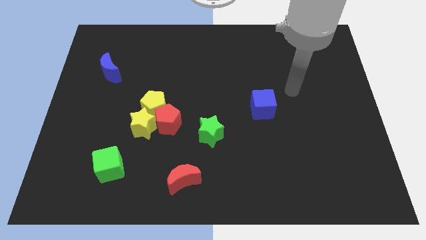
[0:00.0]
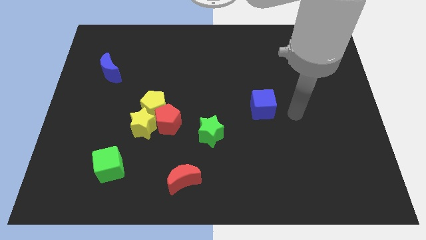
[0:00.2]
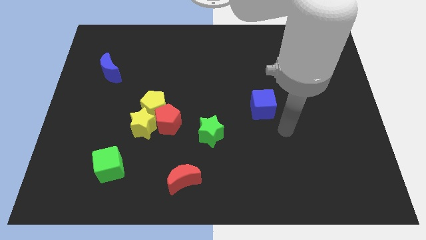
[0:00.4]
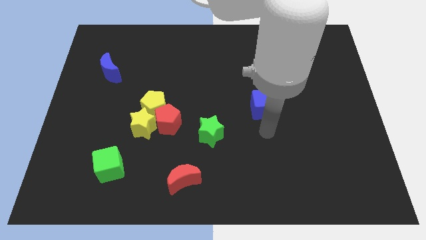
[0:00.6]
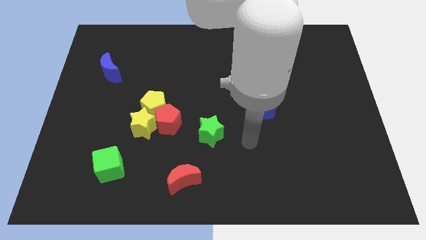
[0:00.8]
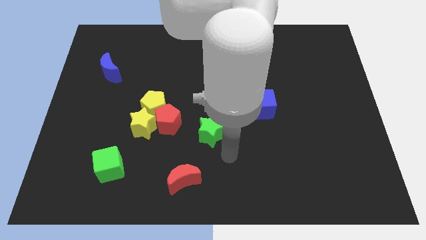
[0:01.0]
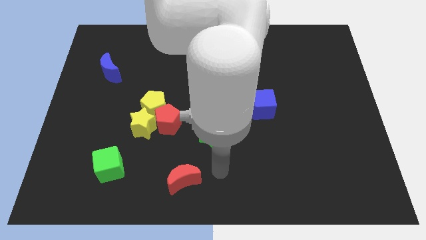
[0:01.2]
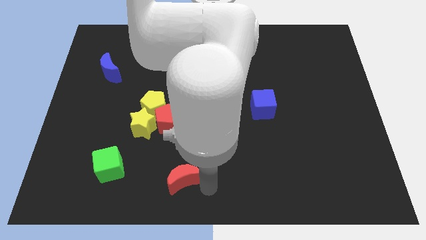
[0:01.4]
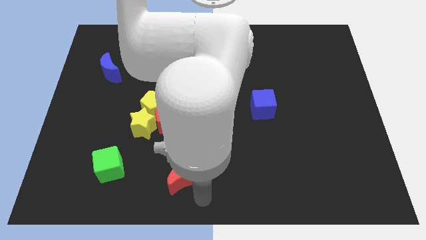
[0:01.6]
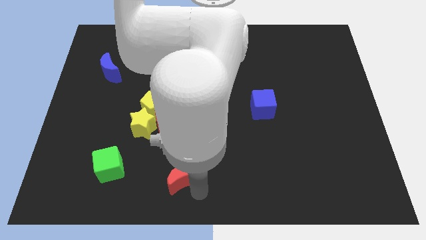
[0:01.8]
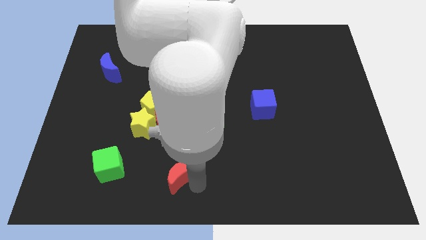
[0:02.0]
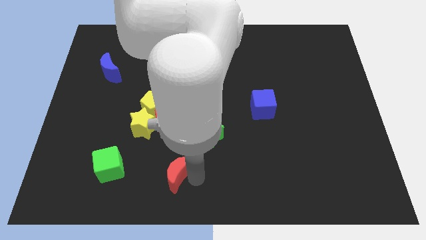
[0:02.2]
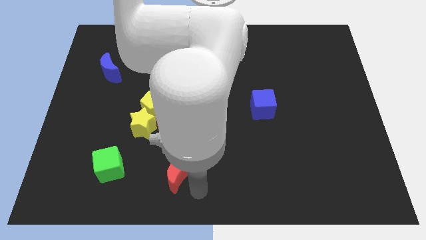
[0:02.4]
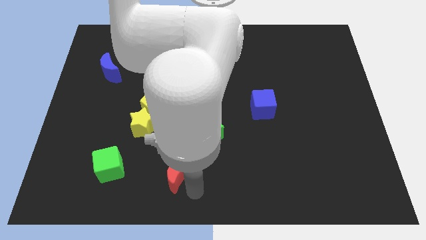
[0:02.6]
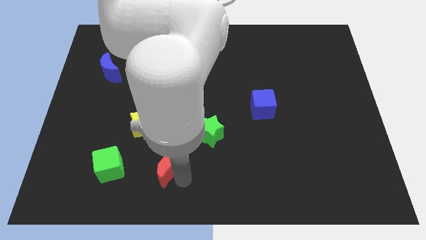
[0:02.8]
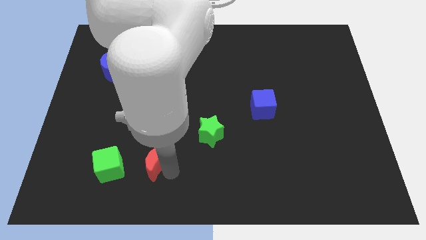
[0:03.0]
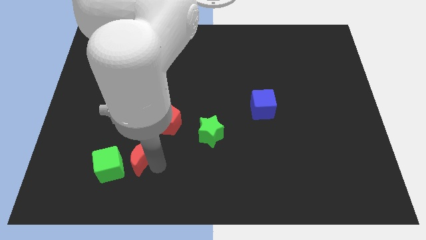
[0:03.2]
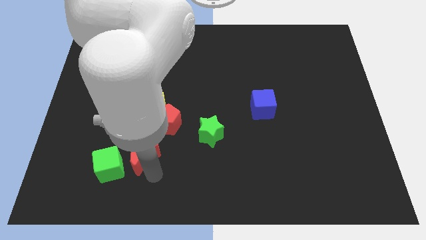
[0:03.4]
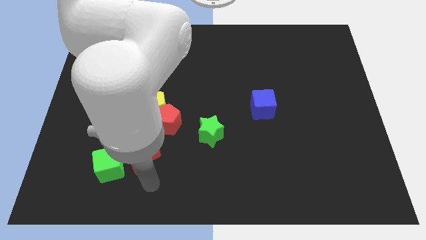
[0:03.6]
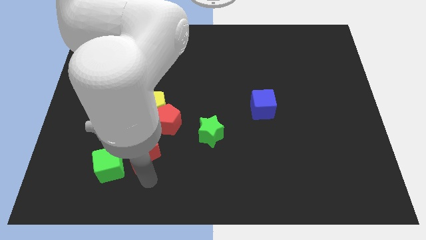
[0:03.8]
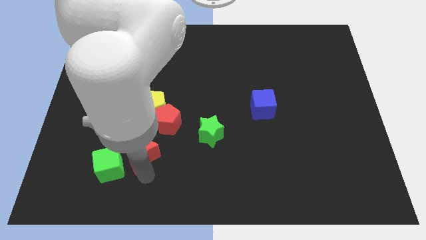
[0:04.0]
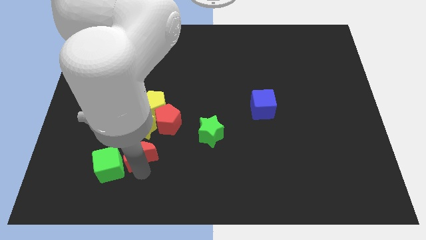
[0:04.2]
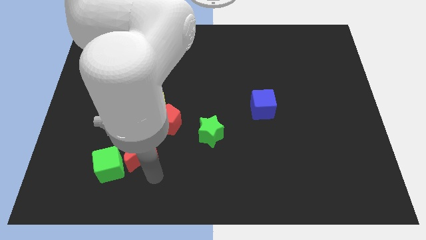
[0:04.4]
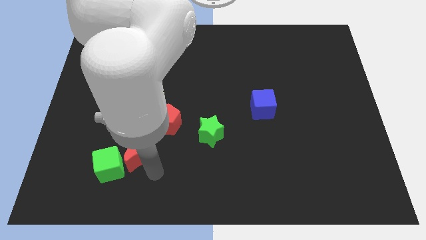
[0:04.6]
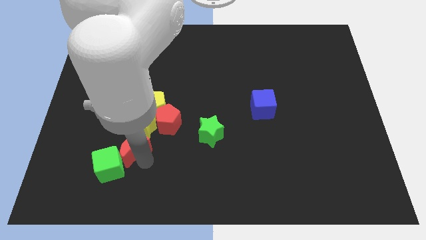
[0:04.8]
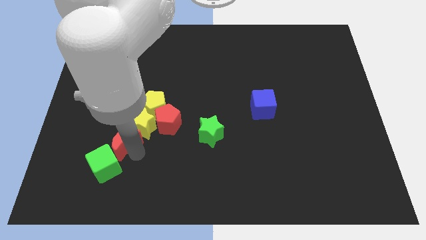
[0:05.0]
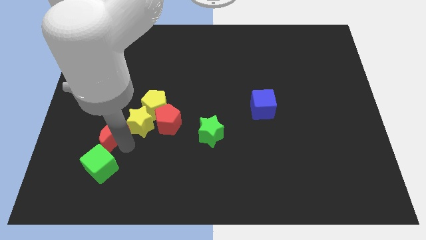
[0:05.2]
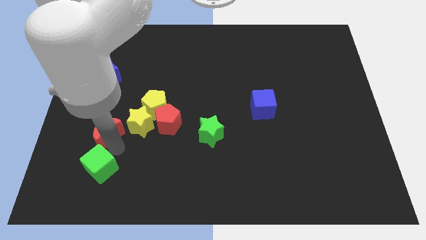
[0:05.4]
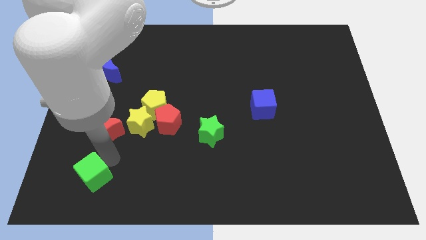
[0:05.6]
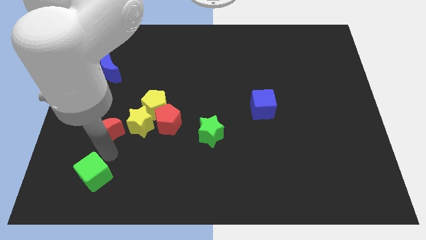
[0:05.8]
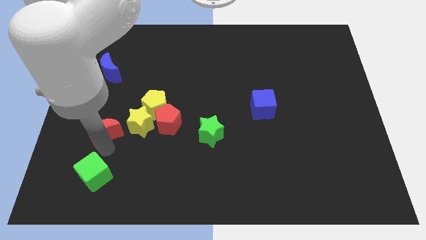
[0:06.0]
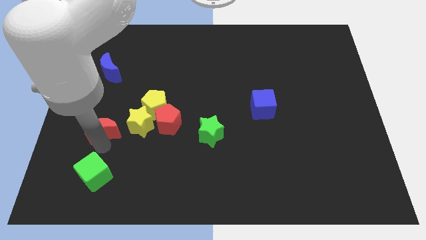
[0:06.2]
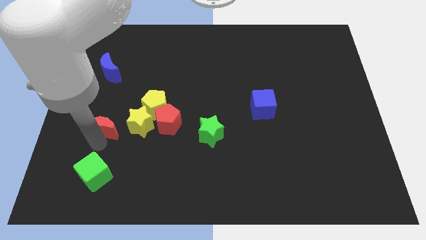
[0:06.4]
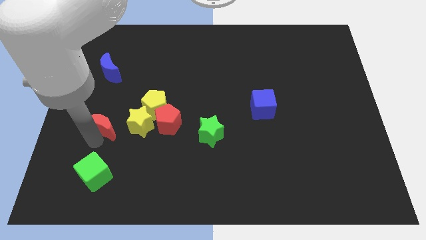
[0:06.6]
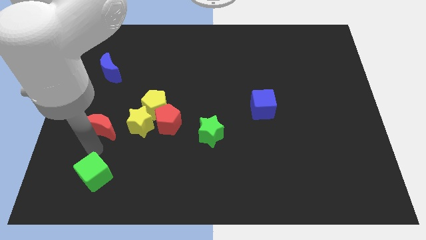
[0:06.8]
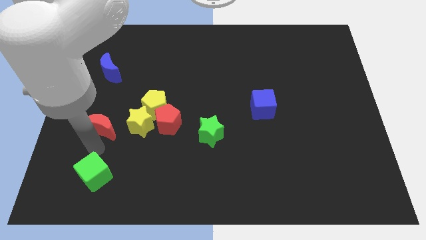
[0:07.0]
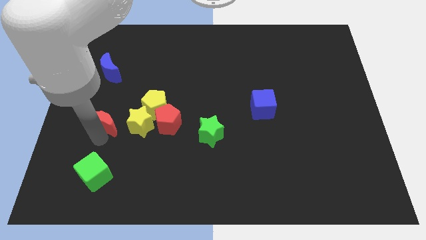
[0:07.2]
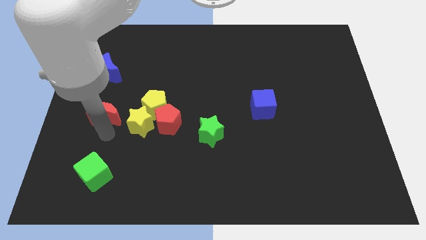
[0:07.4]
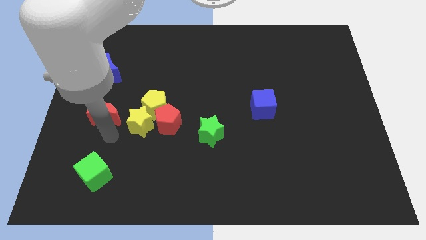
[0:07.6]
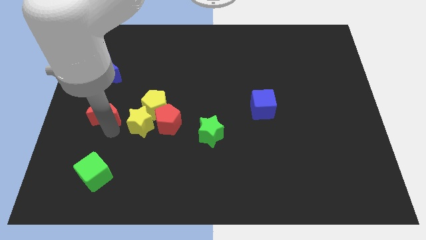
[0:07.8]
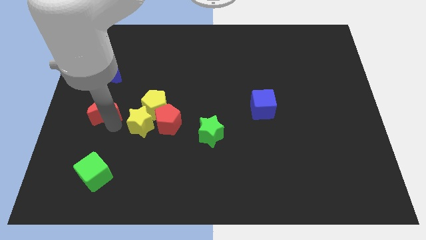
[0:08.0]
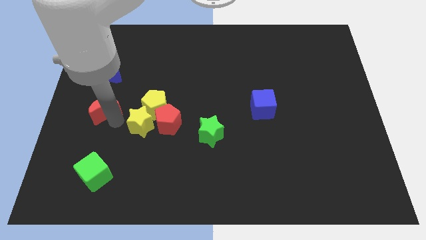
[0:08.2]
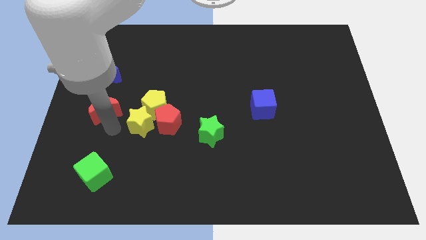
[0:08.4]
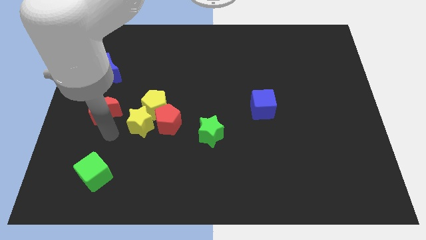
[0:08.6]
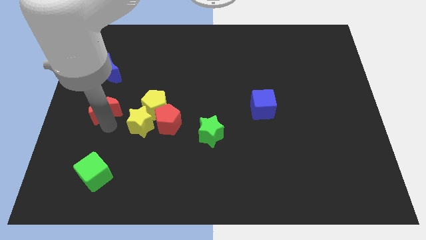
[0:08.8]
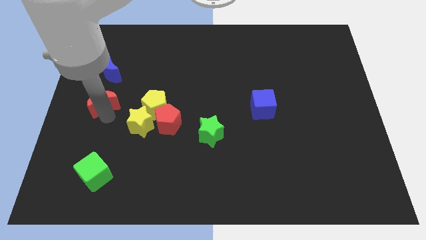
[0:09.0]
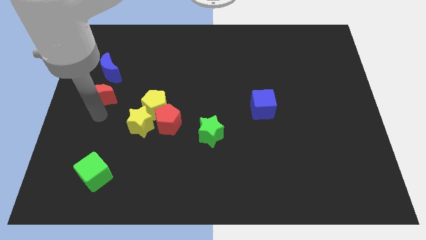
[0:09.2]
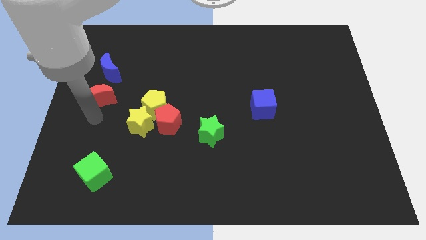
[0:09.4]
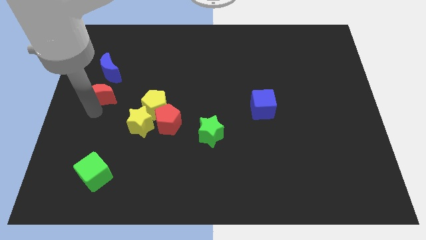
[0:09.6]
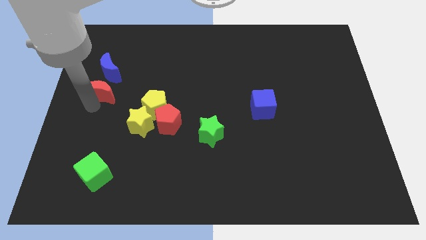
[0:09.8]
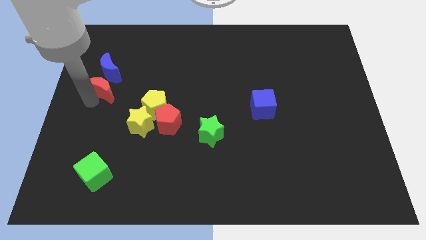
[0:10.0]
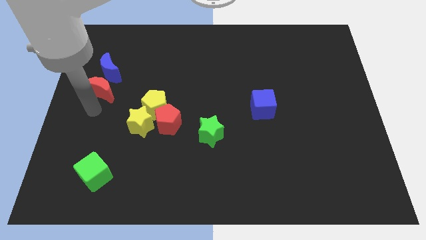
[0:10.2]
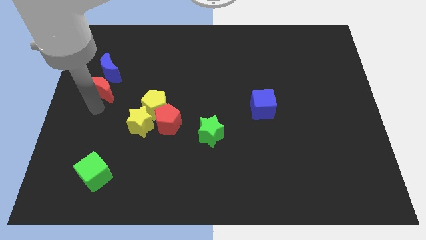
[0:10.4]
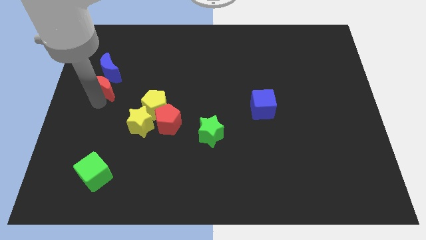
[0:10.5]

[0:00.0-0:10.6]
put the red moon to the blue moon

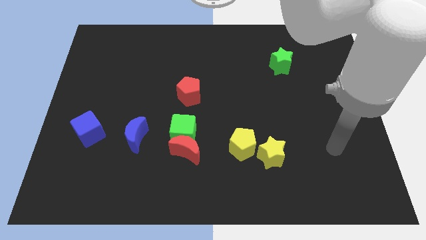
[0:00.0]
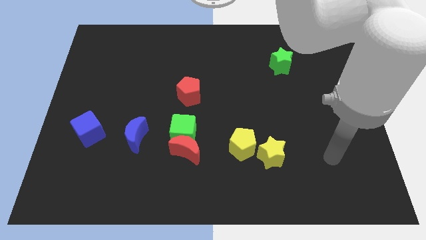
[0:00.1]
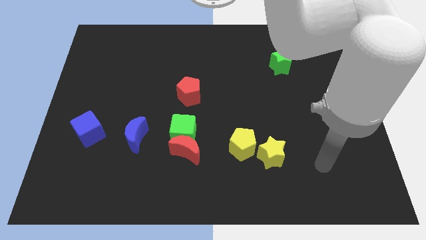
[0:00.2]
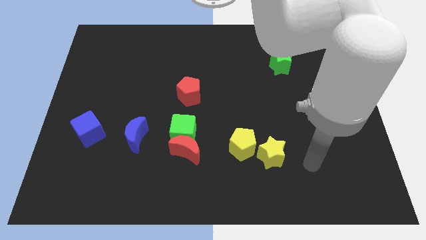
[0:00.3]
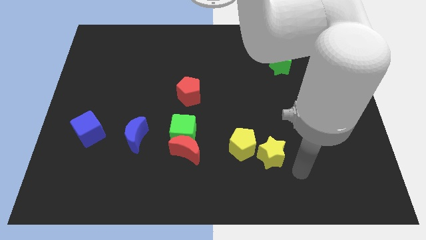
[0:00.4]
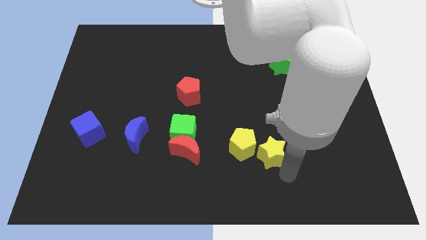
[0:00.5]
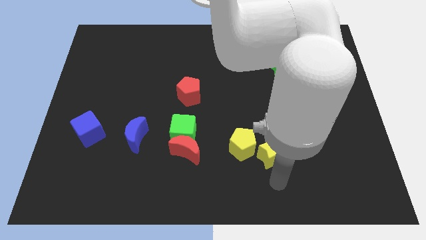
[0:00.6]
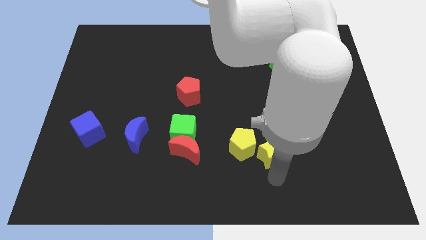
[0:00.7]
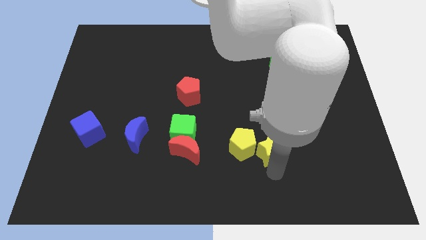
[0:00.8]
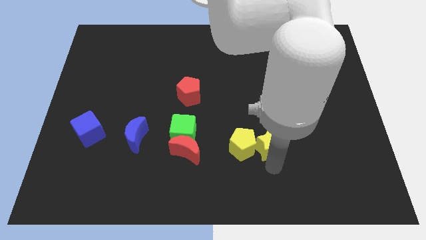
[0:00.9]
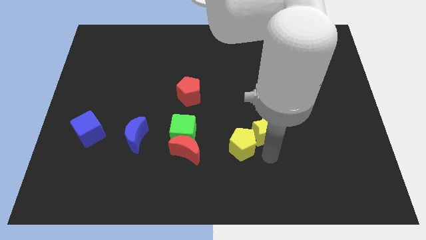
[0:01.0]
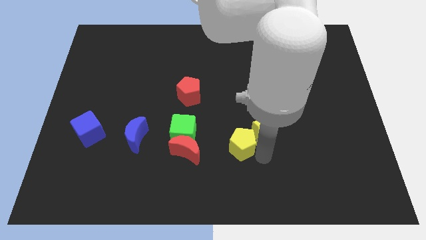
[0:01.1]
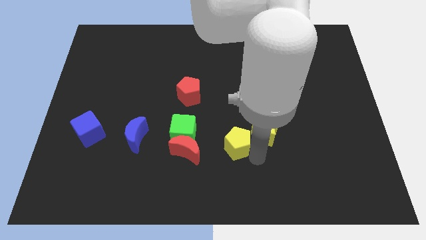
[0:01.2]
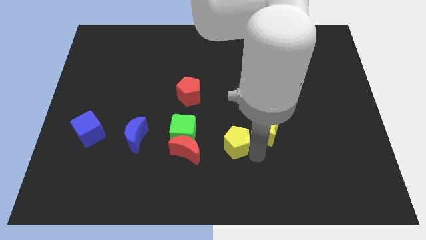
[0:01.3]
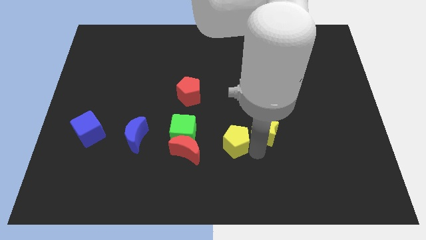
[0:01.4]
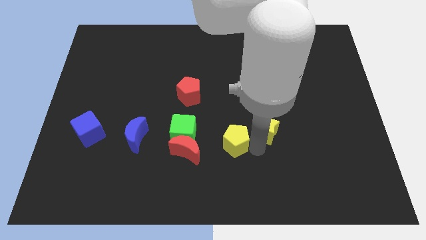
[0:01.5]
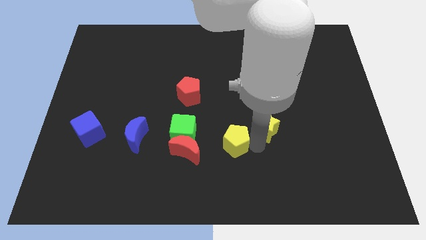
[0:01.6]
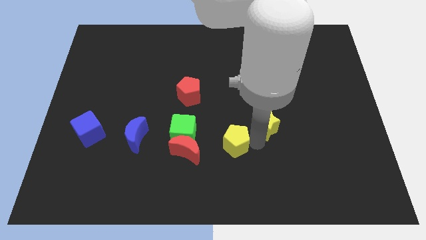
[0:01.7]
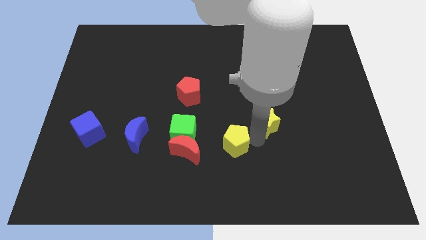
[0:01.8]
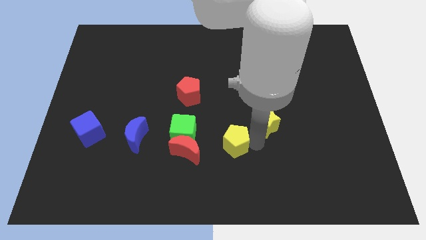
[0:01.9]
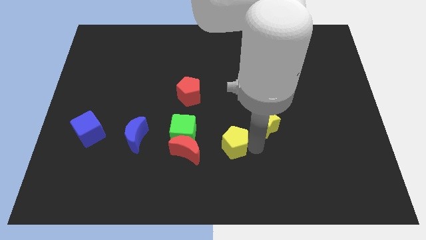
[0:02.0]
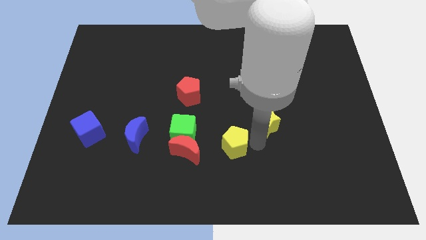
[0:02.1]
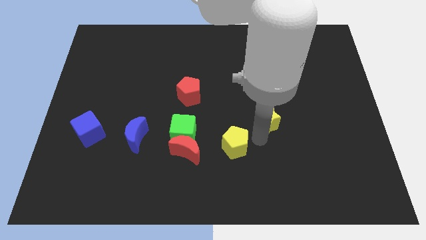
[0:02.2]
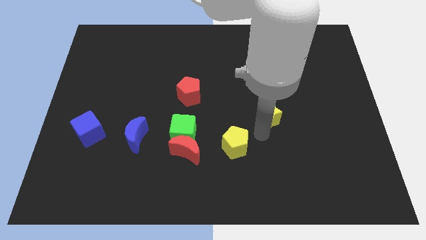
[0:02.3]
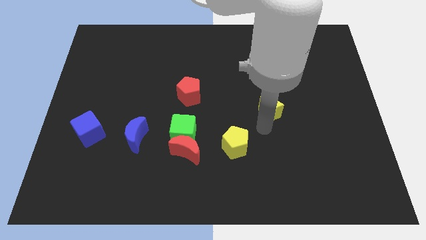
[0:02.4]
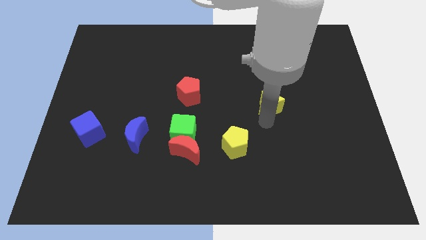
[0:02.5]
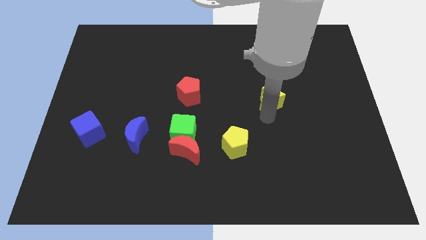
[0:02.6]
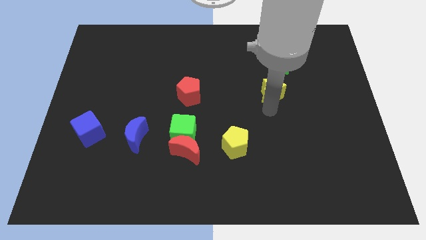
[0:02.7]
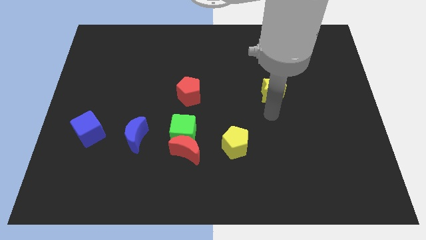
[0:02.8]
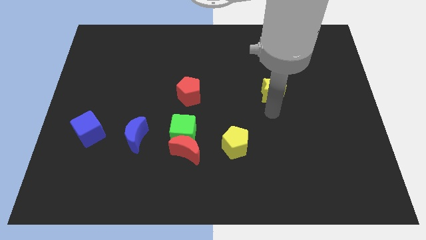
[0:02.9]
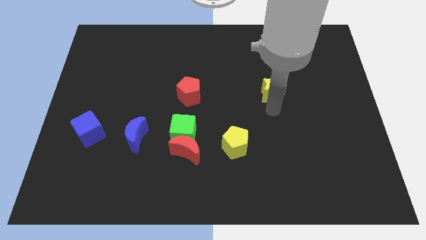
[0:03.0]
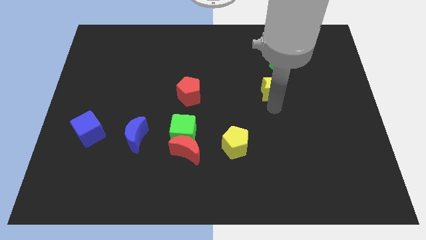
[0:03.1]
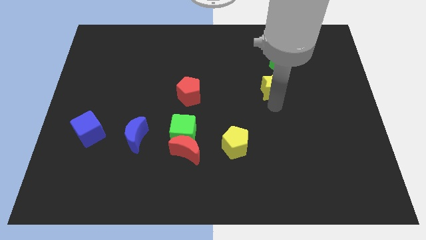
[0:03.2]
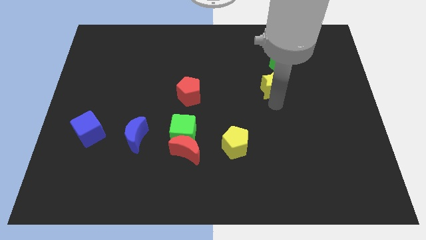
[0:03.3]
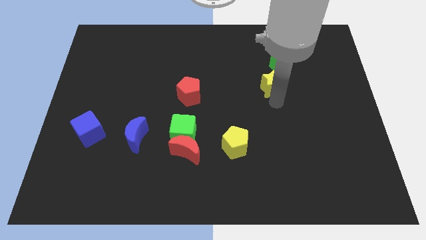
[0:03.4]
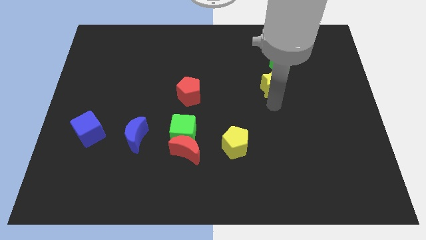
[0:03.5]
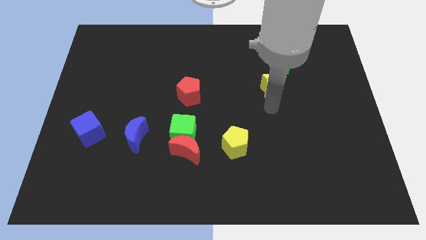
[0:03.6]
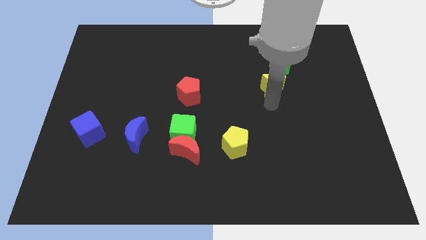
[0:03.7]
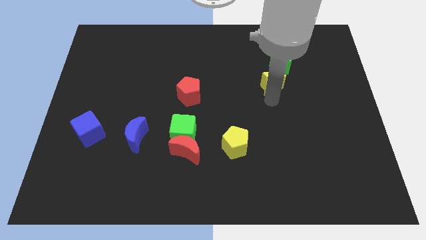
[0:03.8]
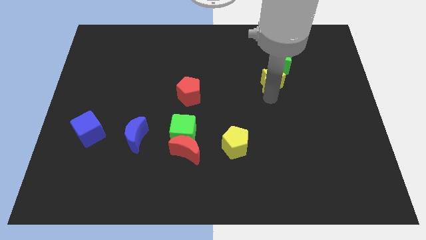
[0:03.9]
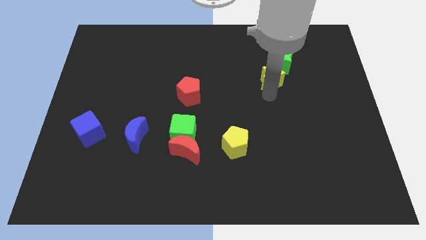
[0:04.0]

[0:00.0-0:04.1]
push the yellow star next to the green star
